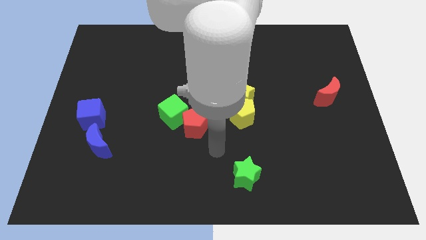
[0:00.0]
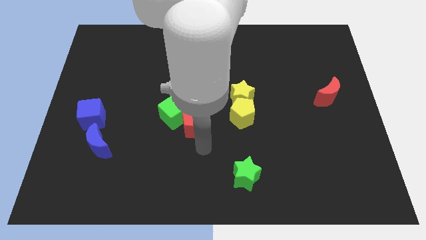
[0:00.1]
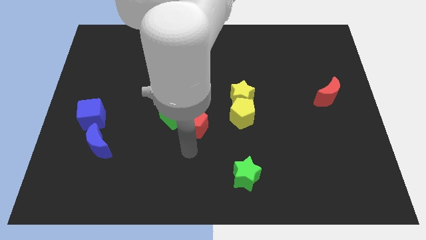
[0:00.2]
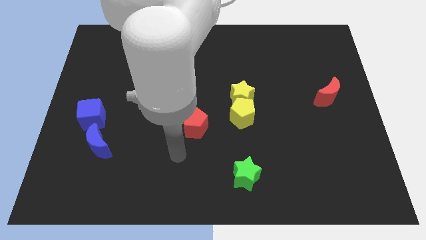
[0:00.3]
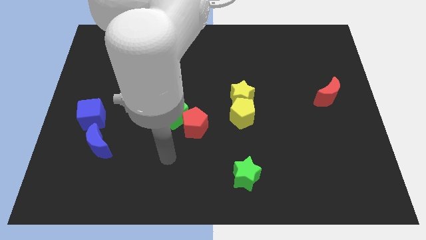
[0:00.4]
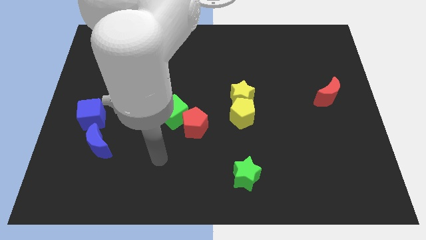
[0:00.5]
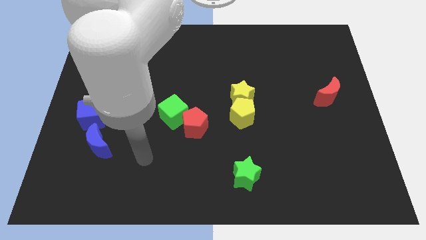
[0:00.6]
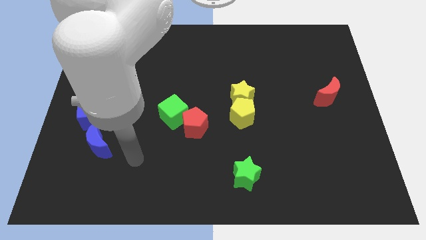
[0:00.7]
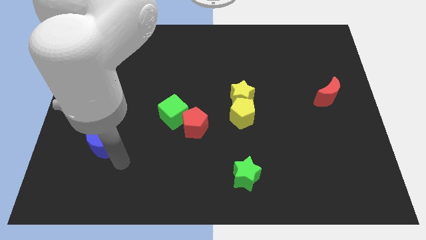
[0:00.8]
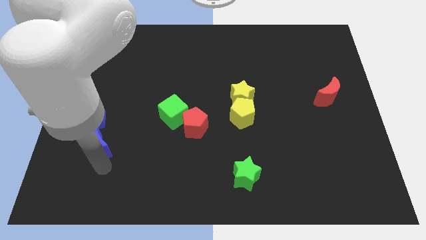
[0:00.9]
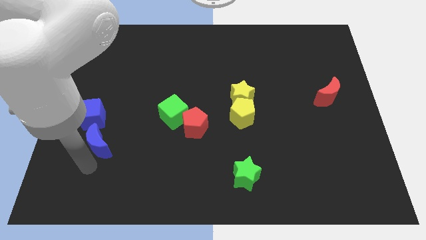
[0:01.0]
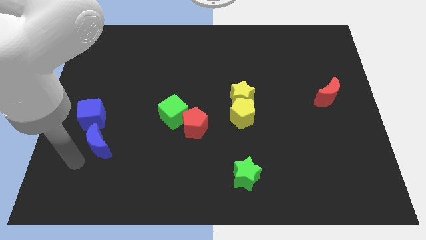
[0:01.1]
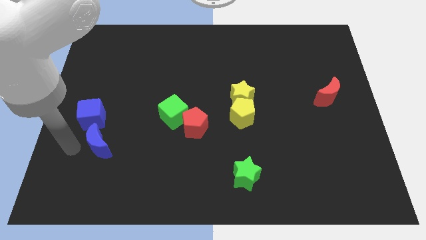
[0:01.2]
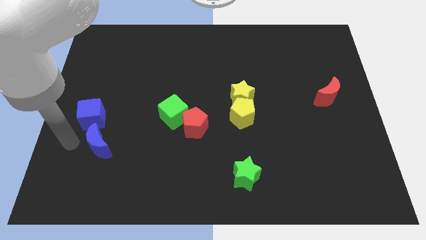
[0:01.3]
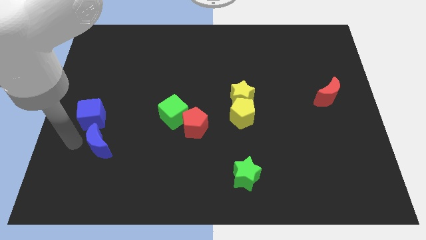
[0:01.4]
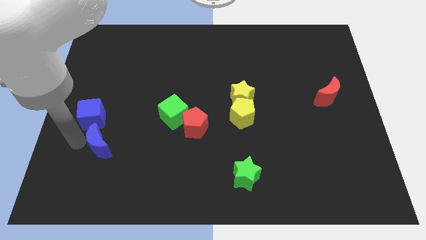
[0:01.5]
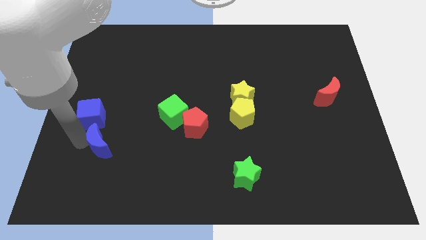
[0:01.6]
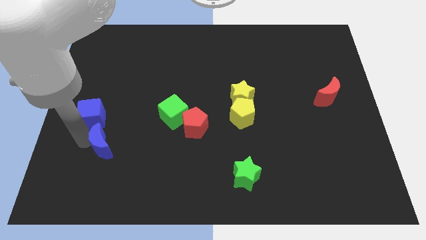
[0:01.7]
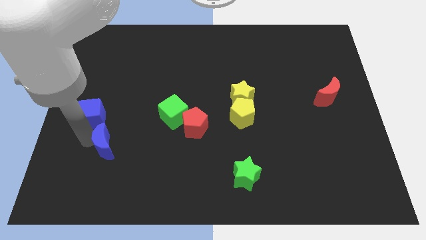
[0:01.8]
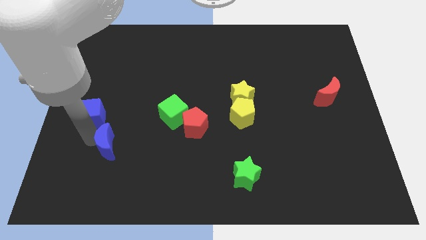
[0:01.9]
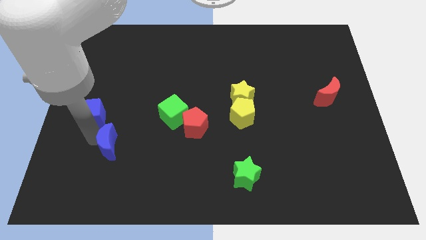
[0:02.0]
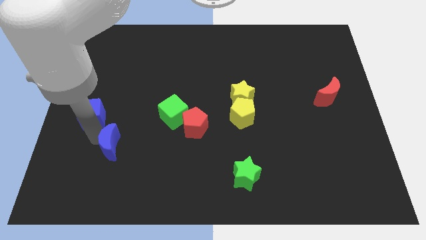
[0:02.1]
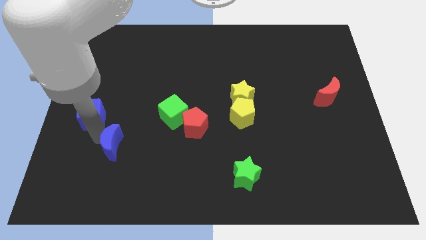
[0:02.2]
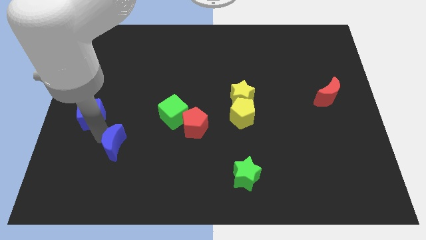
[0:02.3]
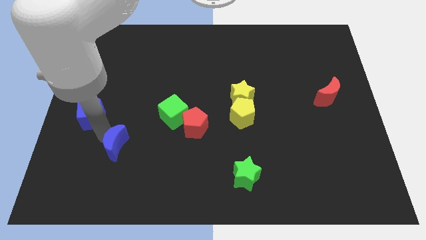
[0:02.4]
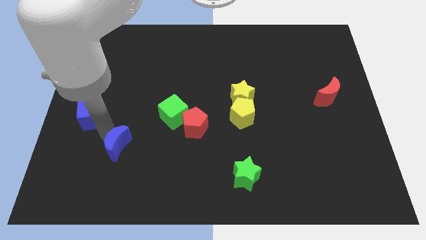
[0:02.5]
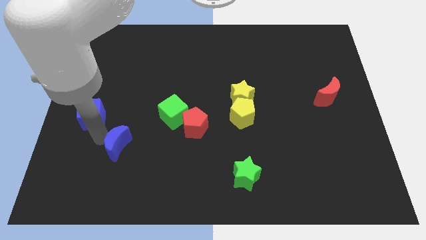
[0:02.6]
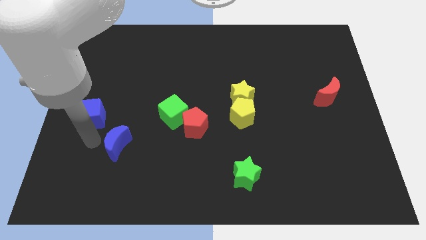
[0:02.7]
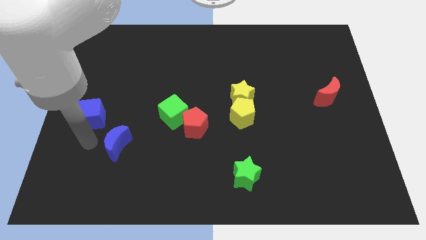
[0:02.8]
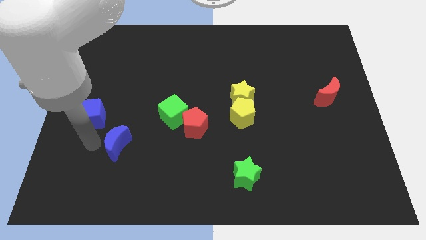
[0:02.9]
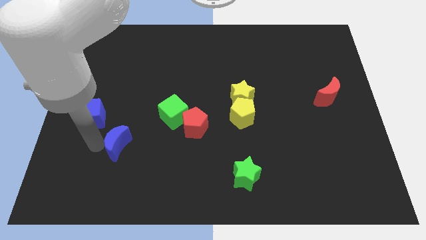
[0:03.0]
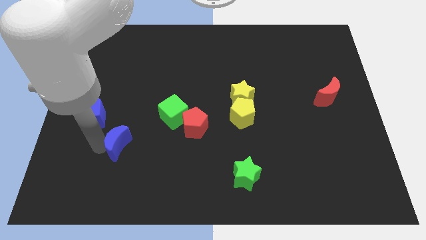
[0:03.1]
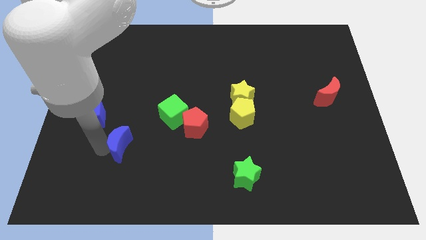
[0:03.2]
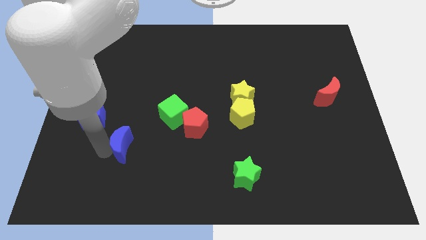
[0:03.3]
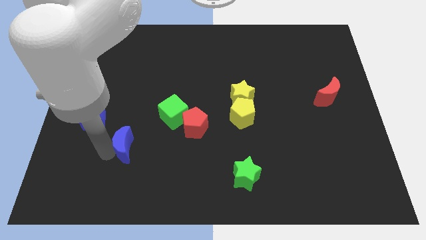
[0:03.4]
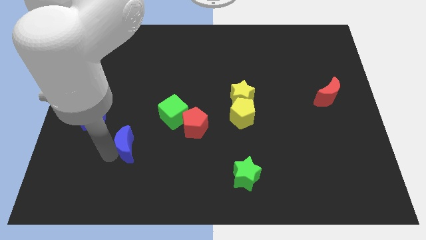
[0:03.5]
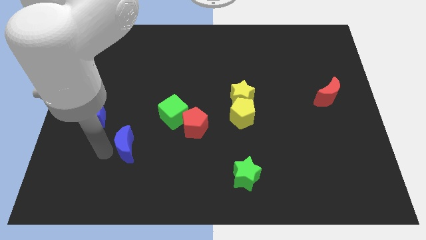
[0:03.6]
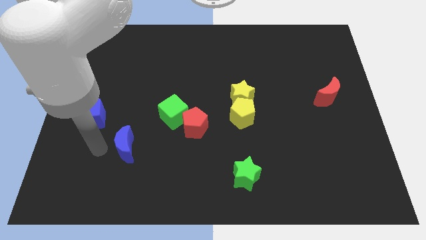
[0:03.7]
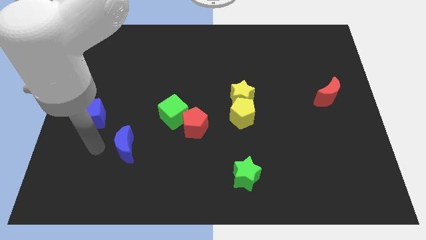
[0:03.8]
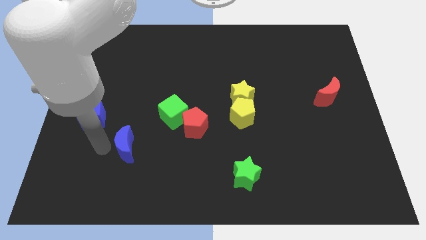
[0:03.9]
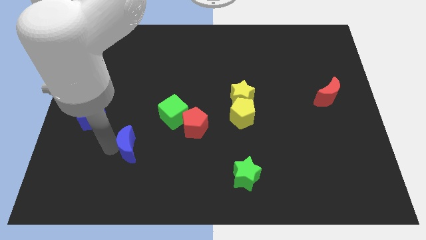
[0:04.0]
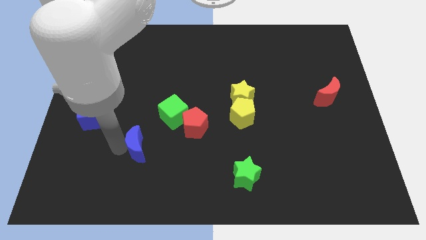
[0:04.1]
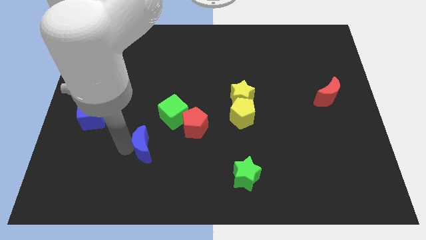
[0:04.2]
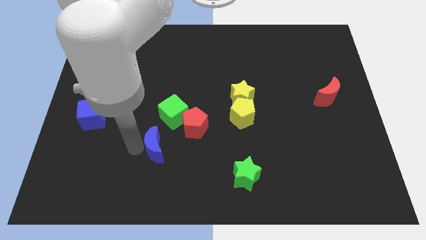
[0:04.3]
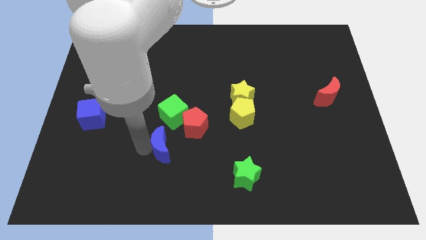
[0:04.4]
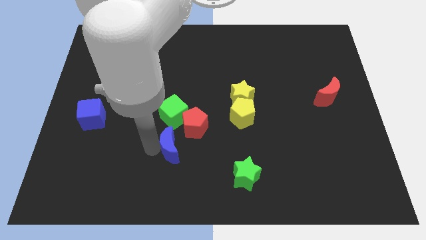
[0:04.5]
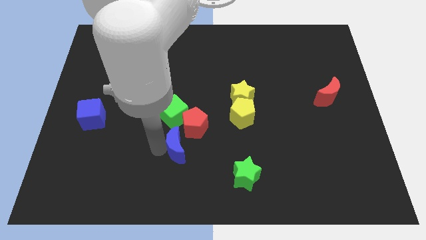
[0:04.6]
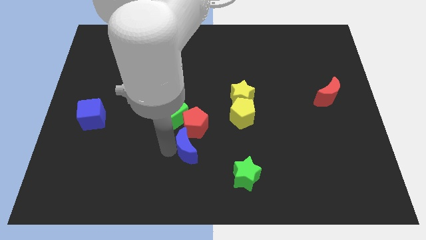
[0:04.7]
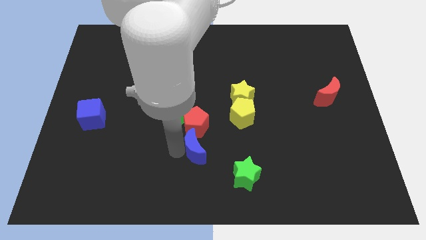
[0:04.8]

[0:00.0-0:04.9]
put the blue moon diagonally down and to the right of the red pentagon

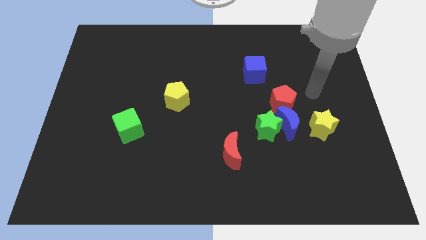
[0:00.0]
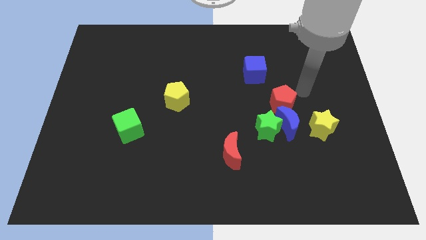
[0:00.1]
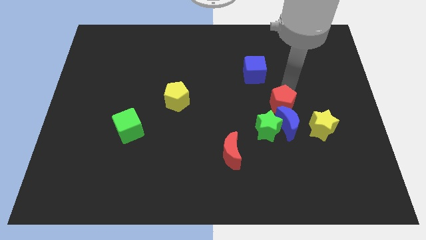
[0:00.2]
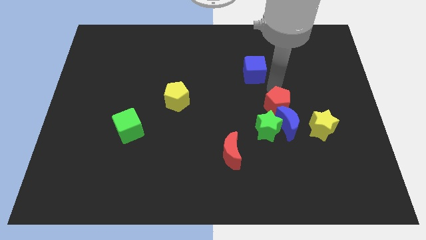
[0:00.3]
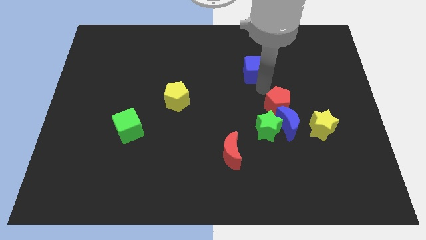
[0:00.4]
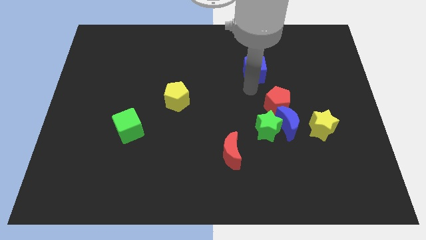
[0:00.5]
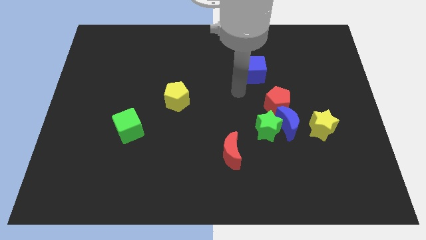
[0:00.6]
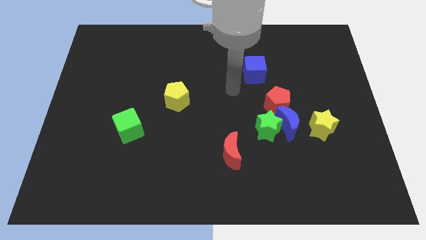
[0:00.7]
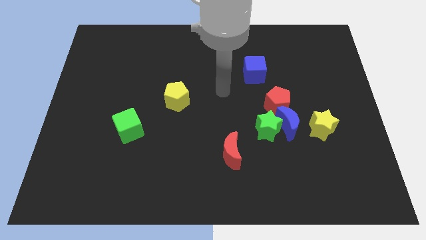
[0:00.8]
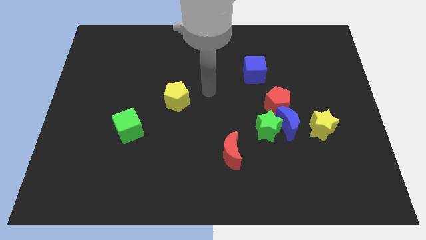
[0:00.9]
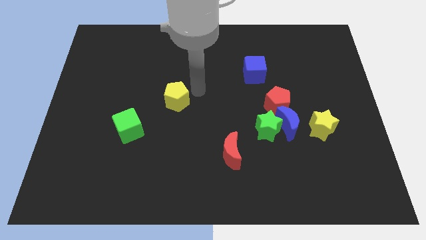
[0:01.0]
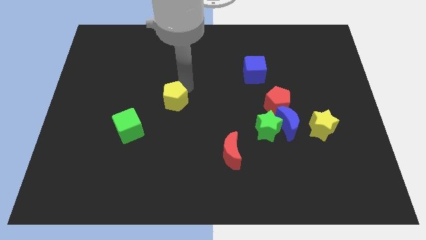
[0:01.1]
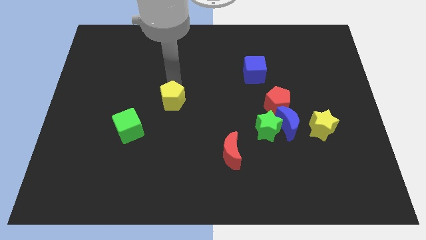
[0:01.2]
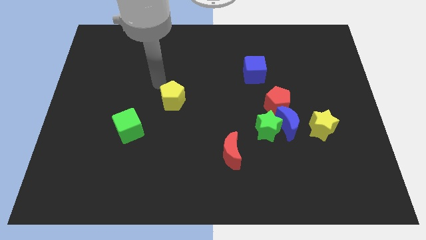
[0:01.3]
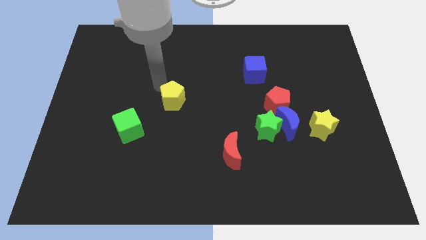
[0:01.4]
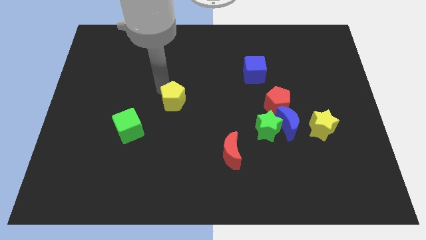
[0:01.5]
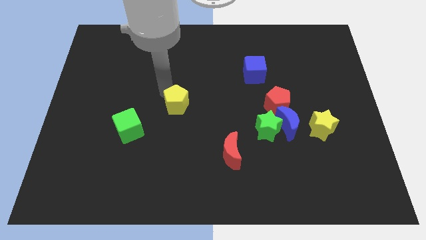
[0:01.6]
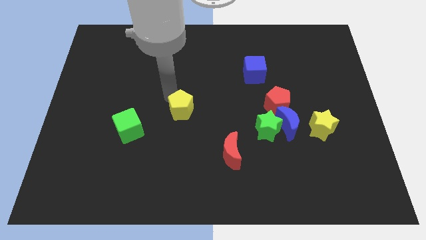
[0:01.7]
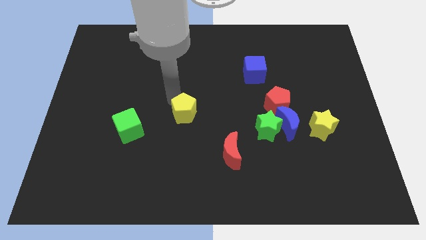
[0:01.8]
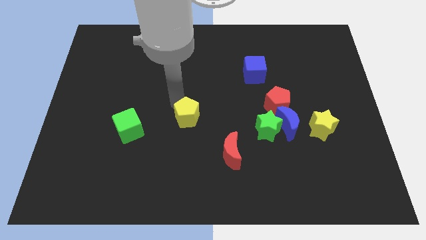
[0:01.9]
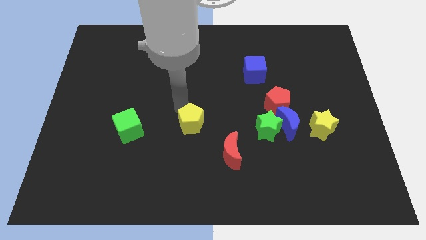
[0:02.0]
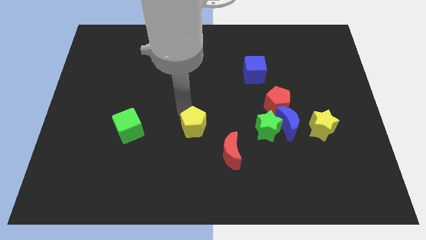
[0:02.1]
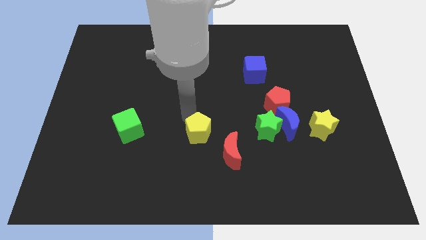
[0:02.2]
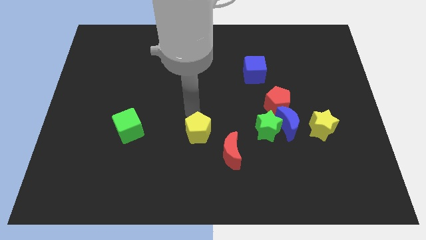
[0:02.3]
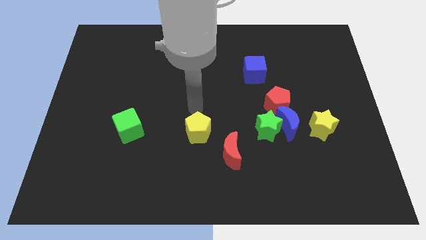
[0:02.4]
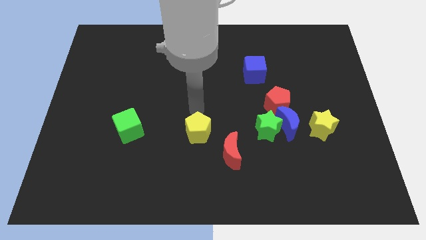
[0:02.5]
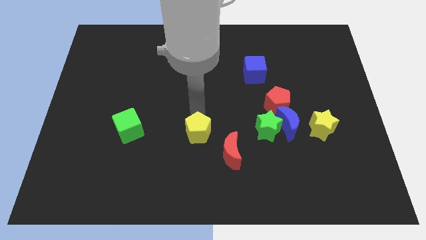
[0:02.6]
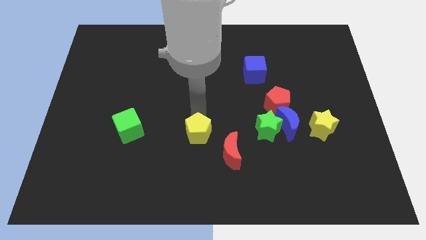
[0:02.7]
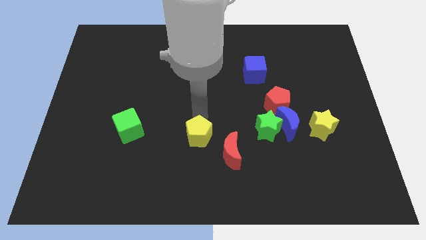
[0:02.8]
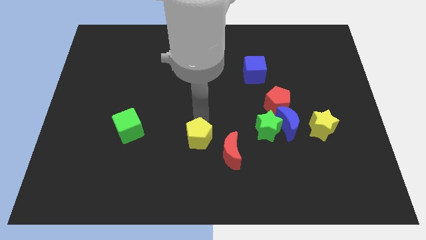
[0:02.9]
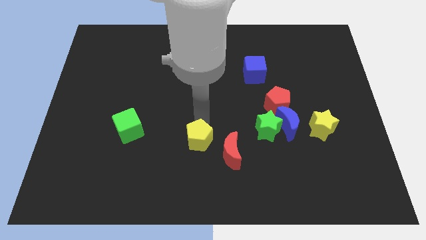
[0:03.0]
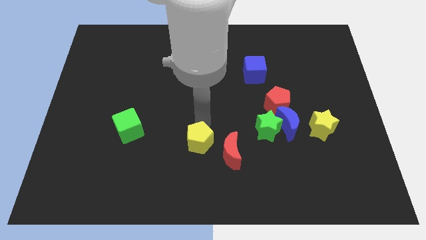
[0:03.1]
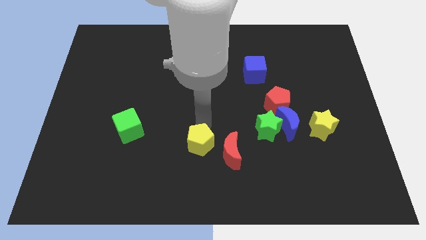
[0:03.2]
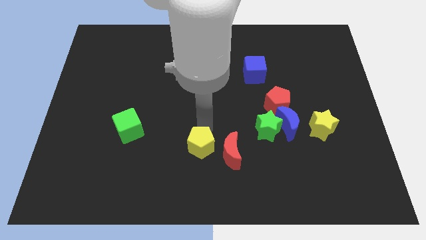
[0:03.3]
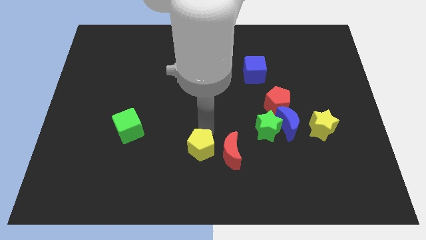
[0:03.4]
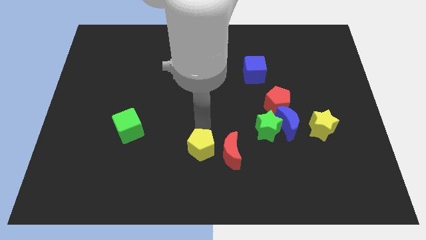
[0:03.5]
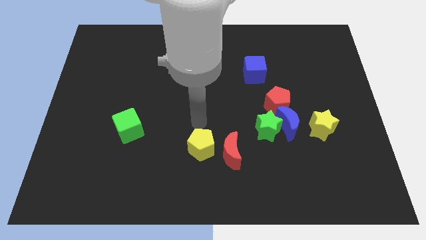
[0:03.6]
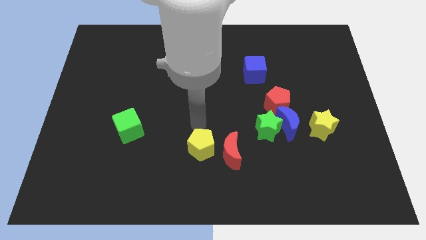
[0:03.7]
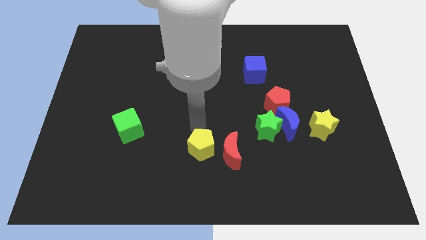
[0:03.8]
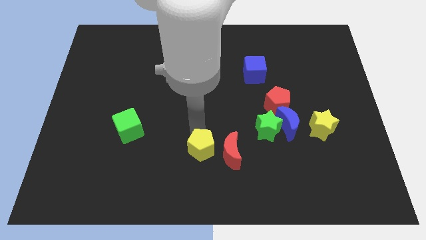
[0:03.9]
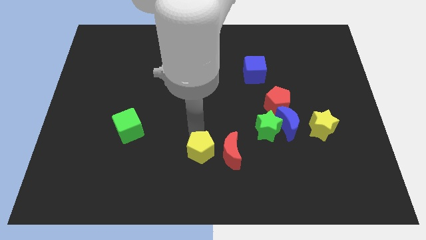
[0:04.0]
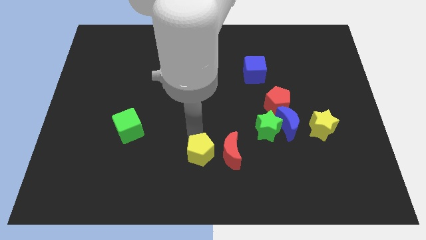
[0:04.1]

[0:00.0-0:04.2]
push the yellow pentagon diagonally down and to the left of the red moon
